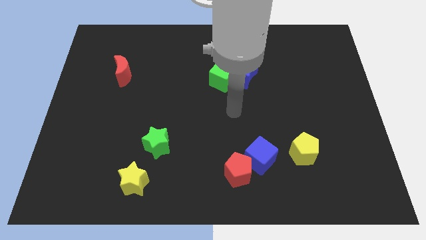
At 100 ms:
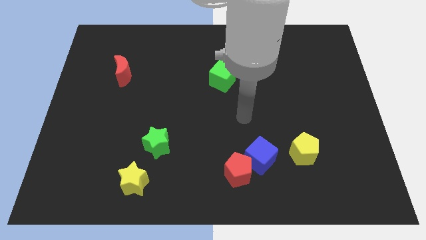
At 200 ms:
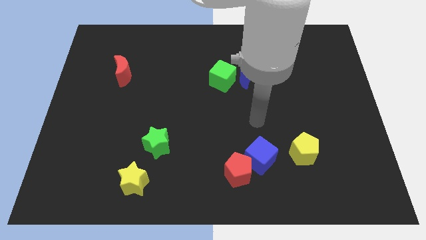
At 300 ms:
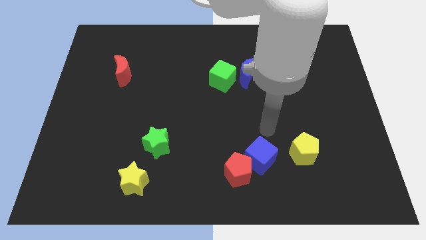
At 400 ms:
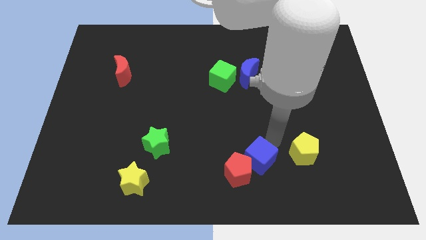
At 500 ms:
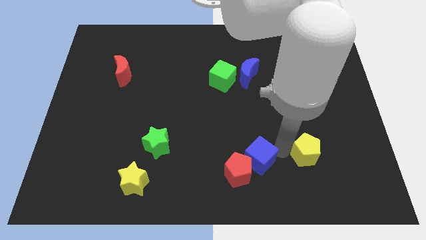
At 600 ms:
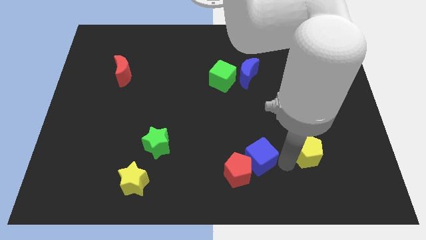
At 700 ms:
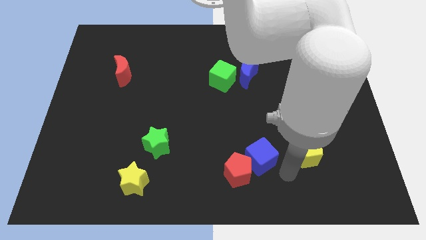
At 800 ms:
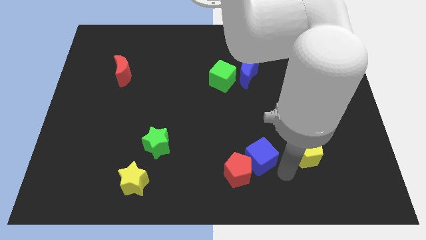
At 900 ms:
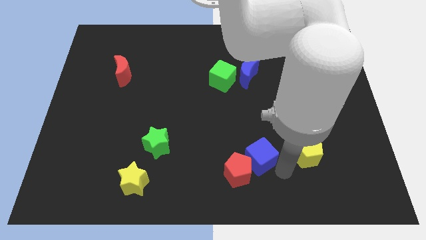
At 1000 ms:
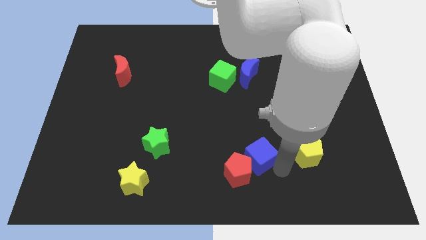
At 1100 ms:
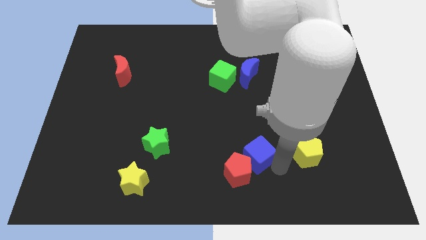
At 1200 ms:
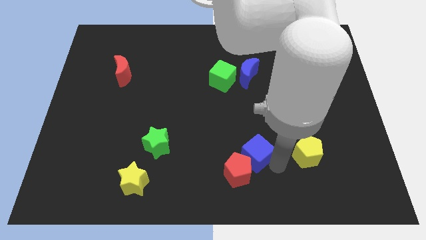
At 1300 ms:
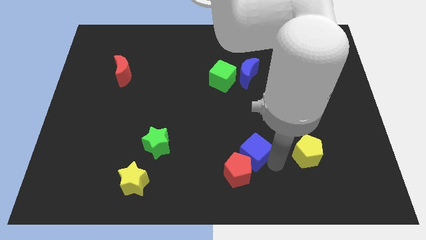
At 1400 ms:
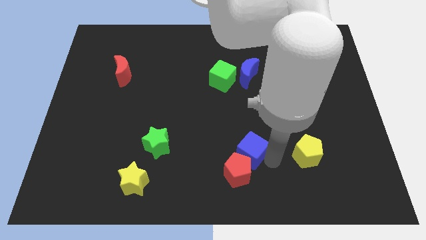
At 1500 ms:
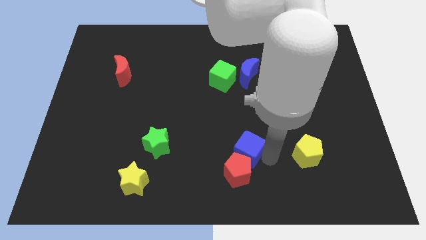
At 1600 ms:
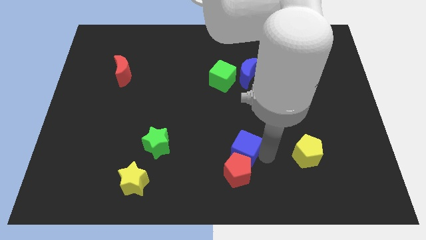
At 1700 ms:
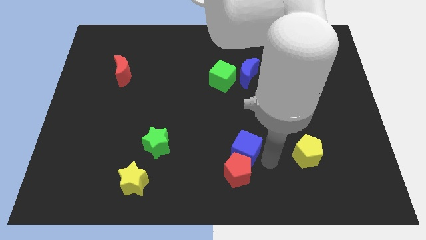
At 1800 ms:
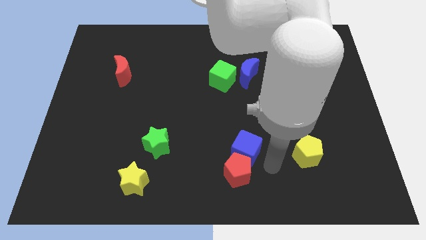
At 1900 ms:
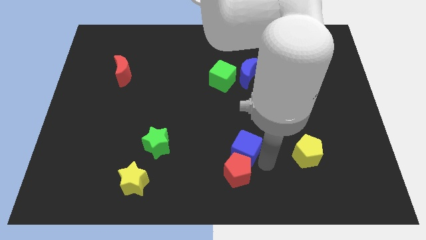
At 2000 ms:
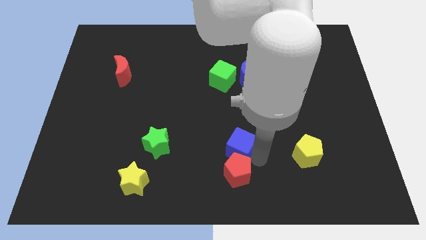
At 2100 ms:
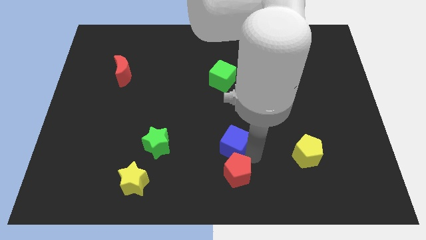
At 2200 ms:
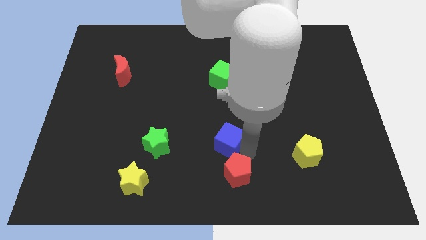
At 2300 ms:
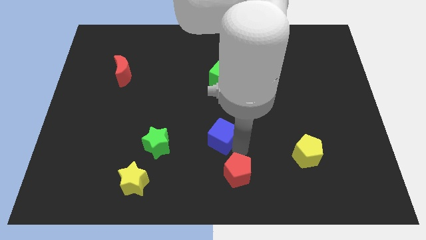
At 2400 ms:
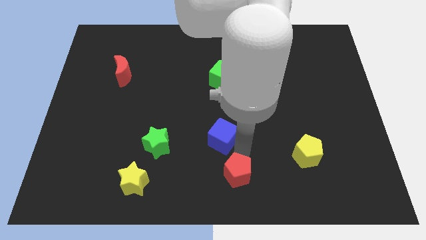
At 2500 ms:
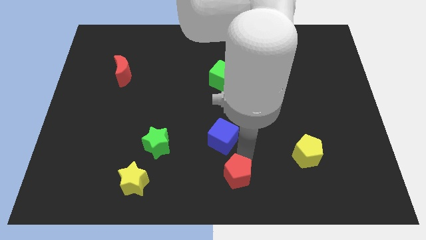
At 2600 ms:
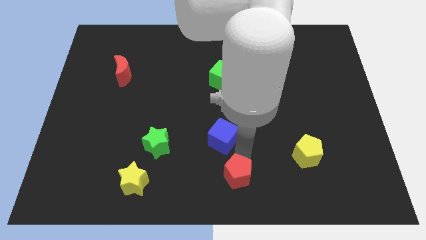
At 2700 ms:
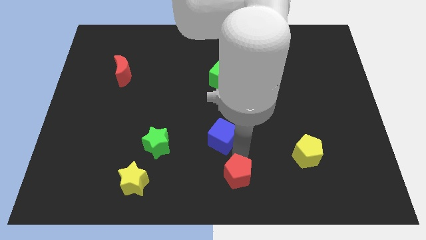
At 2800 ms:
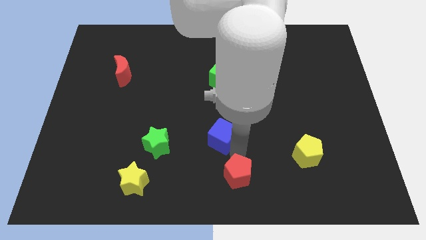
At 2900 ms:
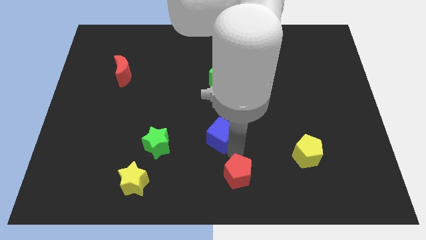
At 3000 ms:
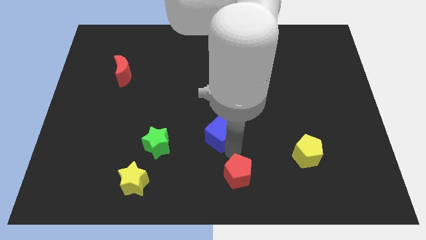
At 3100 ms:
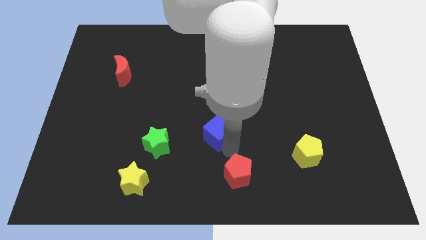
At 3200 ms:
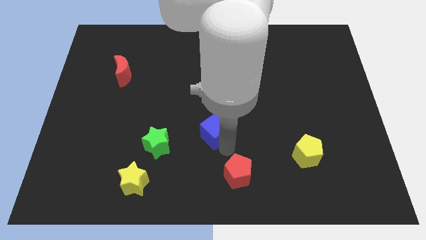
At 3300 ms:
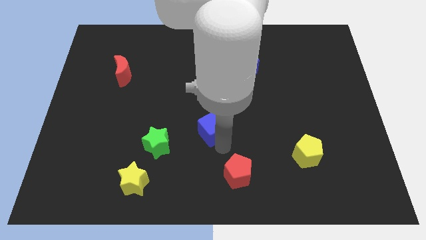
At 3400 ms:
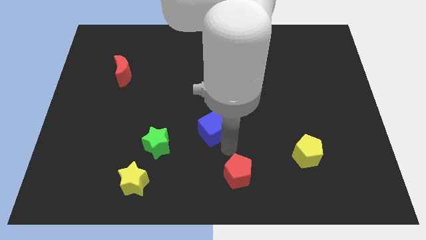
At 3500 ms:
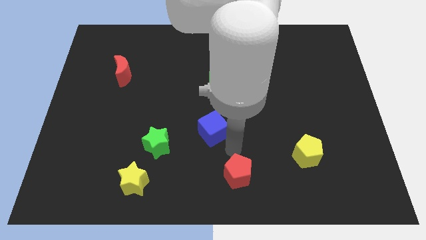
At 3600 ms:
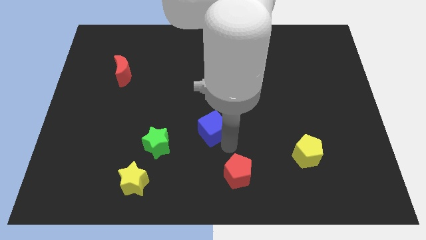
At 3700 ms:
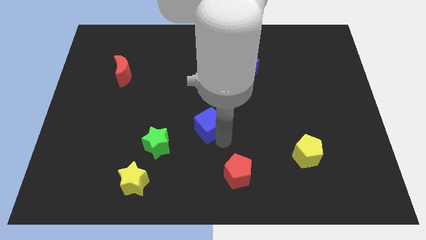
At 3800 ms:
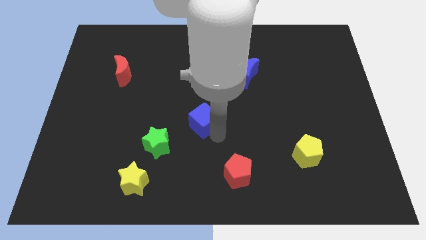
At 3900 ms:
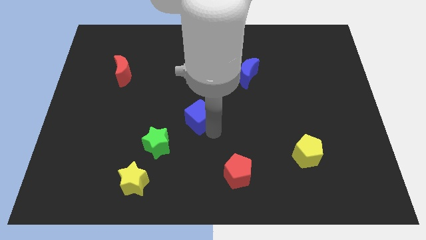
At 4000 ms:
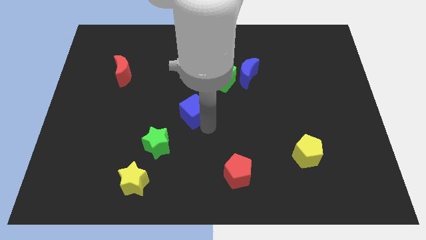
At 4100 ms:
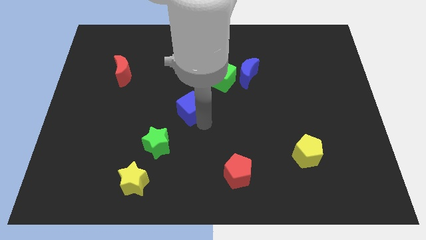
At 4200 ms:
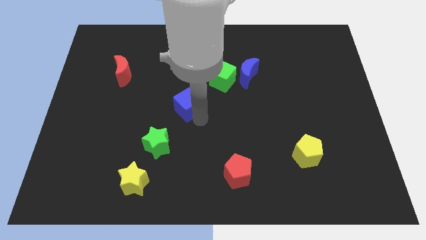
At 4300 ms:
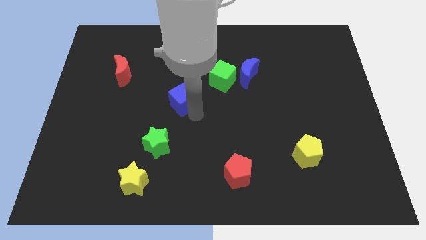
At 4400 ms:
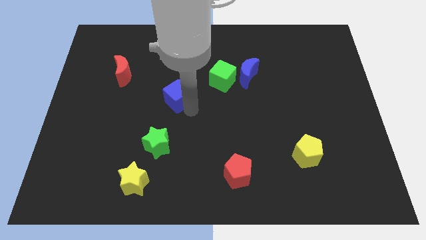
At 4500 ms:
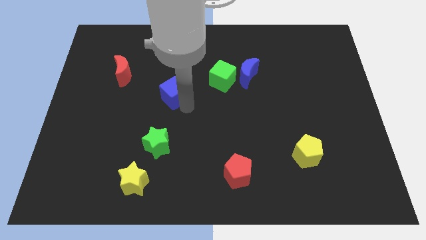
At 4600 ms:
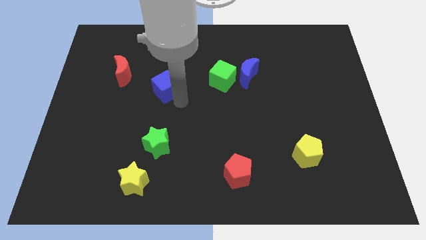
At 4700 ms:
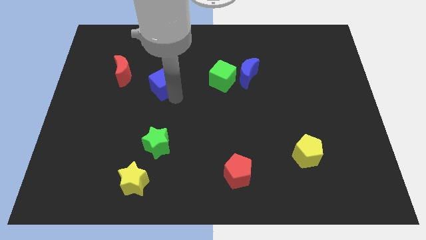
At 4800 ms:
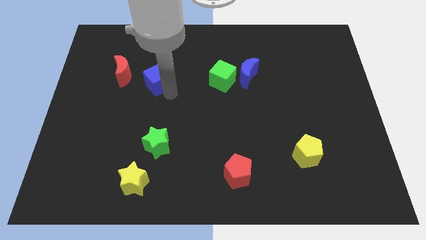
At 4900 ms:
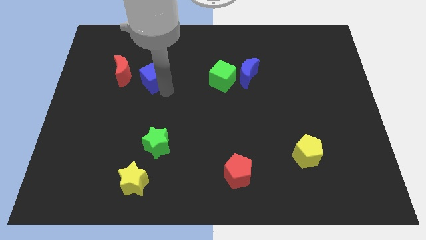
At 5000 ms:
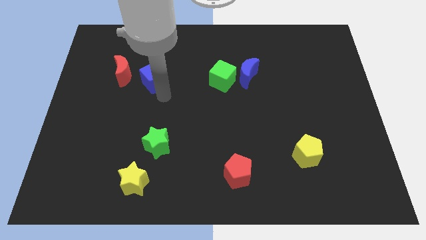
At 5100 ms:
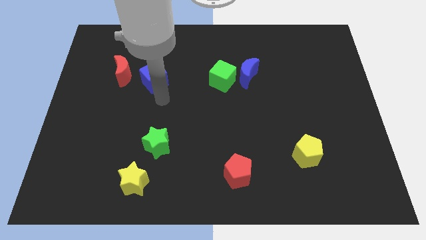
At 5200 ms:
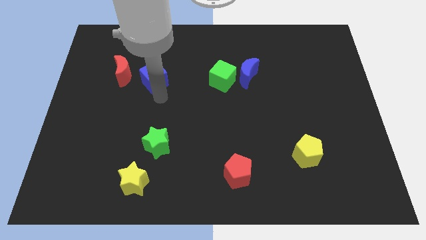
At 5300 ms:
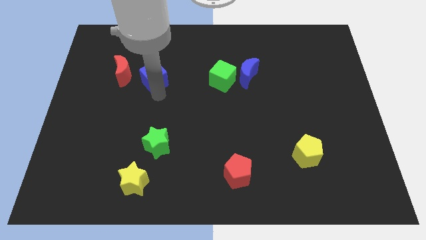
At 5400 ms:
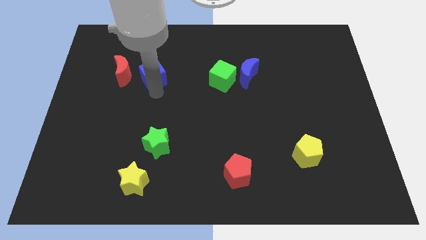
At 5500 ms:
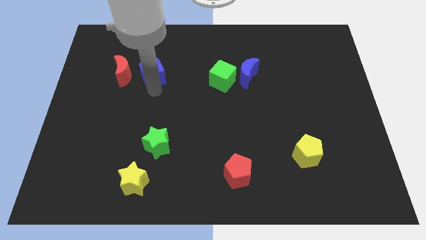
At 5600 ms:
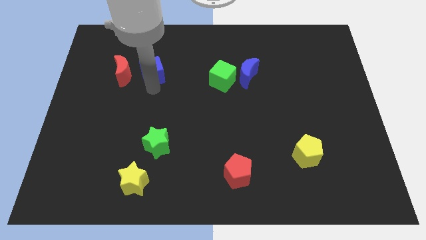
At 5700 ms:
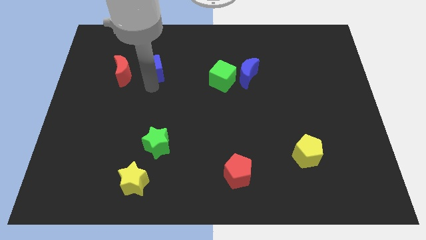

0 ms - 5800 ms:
put the blue cube to the top right side of the red moon
